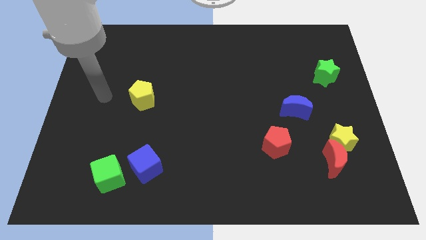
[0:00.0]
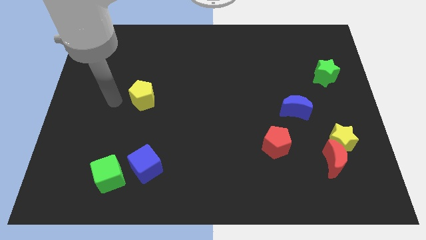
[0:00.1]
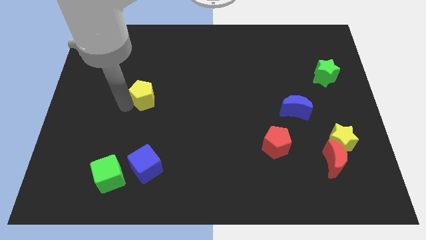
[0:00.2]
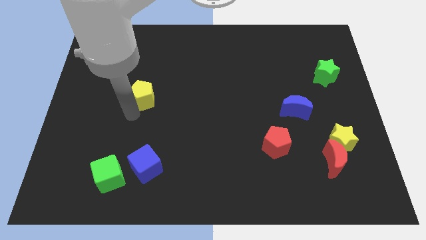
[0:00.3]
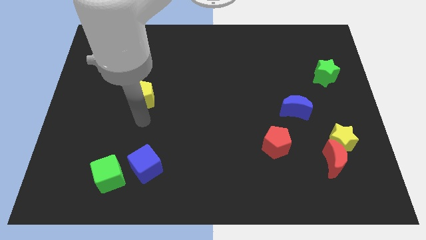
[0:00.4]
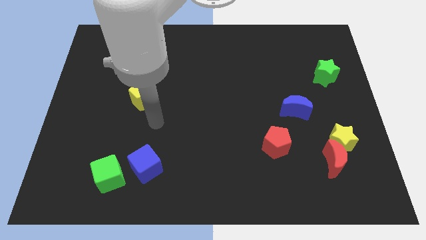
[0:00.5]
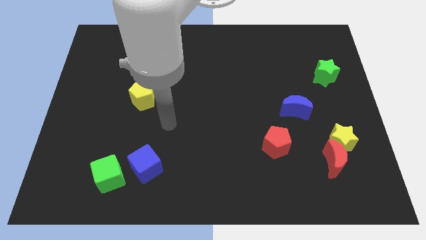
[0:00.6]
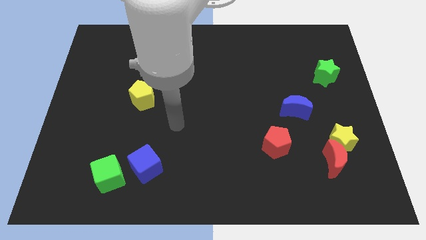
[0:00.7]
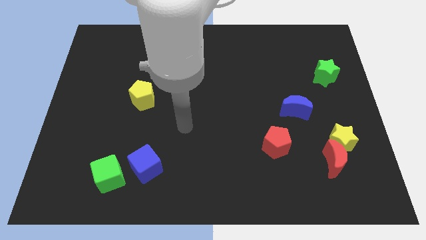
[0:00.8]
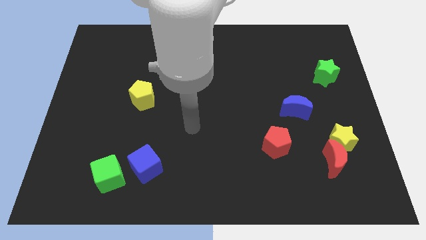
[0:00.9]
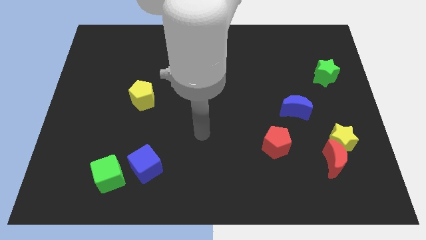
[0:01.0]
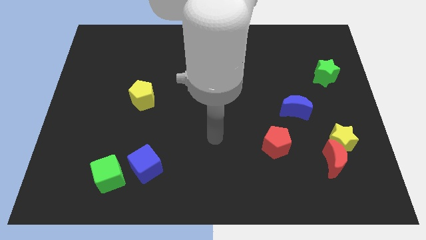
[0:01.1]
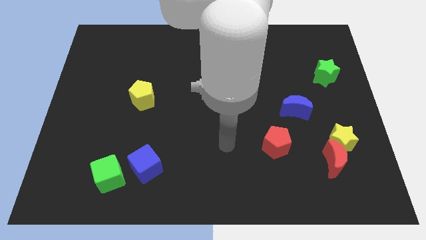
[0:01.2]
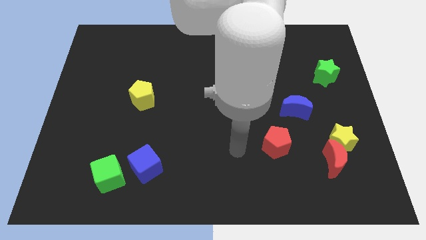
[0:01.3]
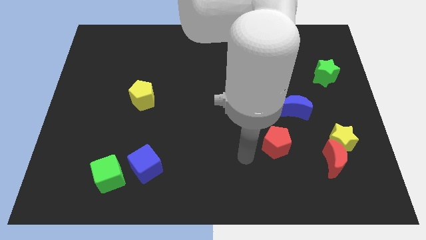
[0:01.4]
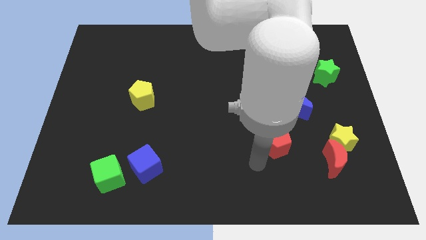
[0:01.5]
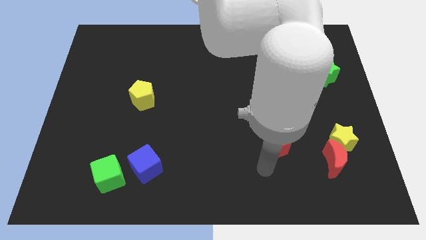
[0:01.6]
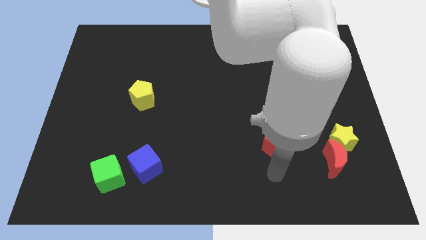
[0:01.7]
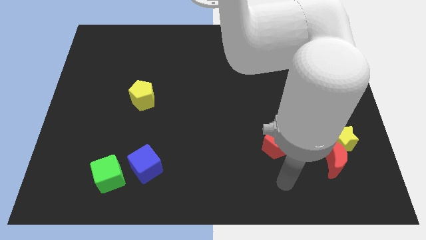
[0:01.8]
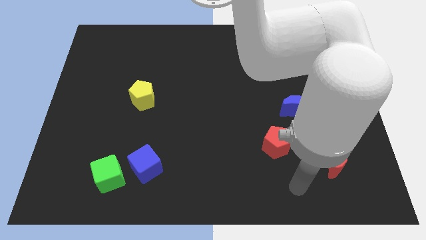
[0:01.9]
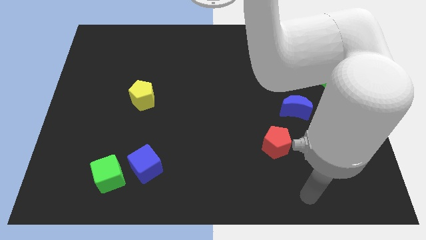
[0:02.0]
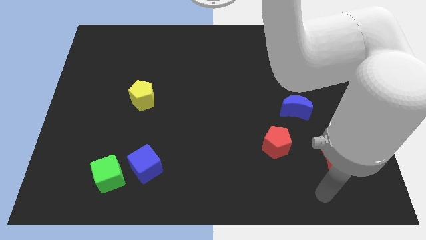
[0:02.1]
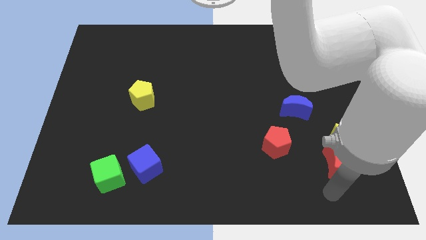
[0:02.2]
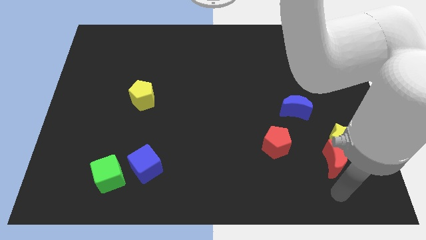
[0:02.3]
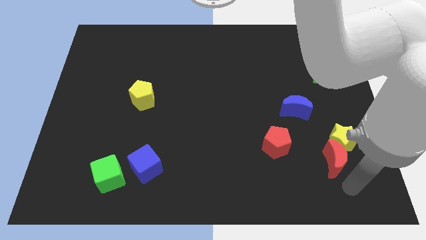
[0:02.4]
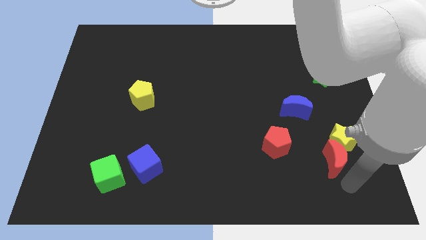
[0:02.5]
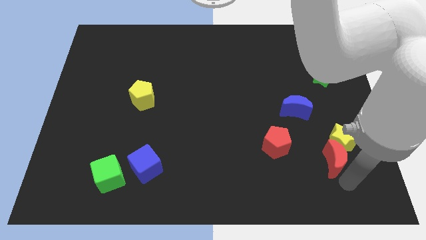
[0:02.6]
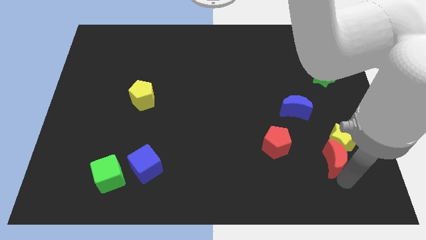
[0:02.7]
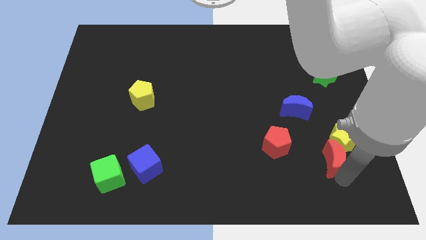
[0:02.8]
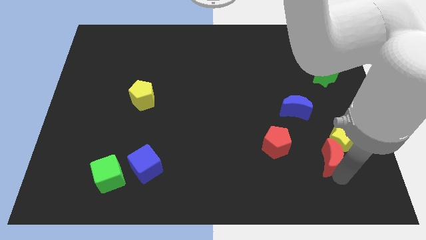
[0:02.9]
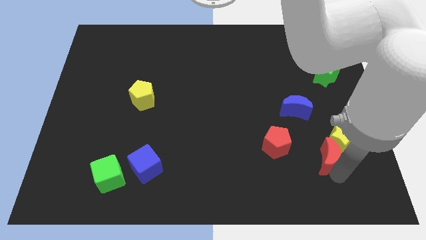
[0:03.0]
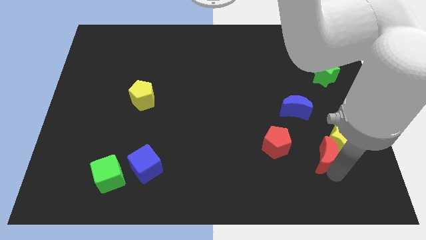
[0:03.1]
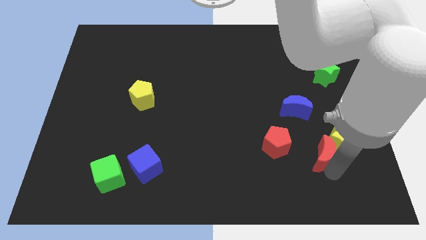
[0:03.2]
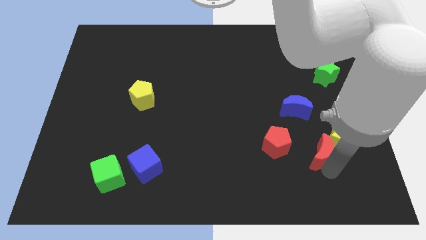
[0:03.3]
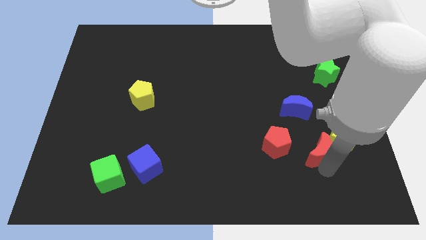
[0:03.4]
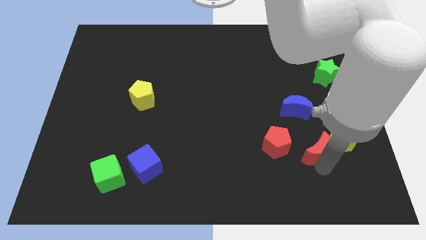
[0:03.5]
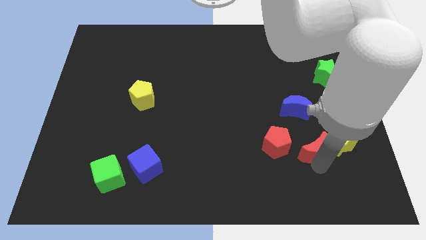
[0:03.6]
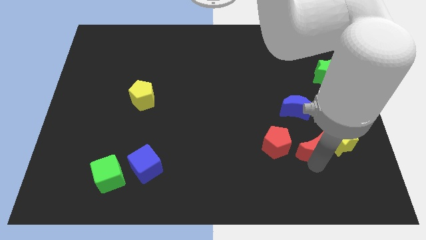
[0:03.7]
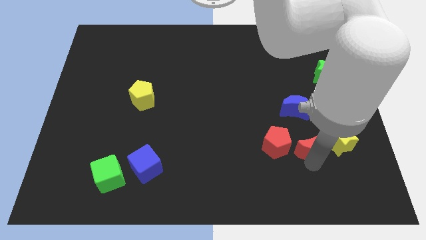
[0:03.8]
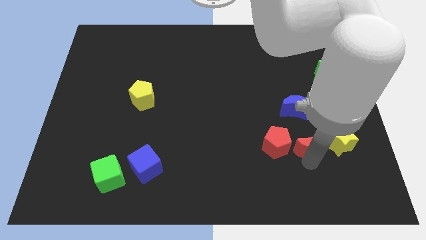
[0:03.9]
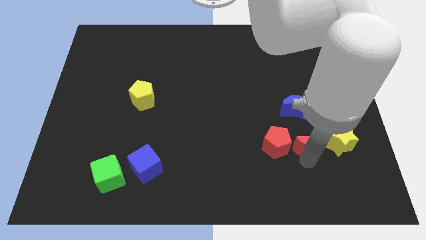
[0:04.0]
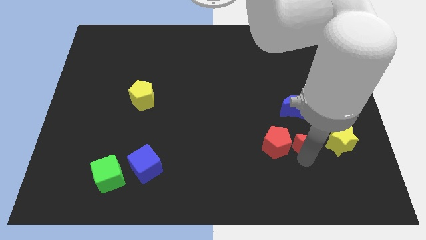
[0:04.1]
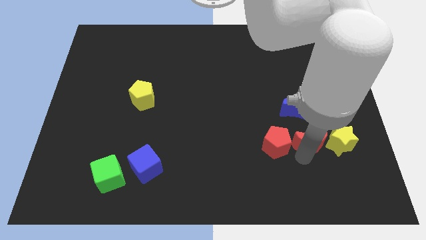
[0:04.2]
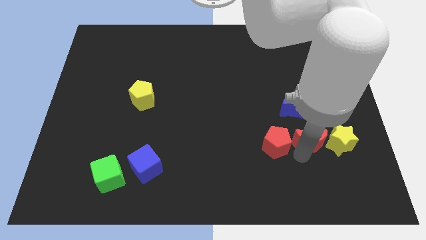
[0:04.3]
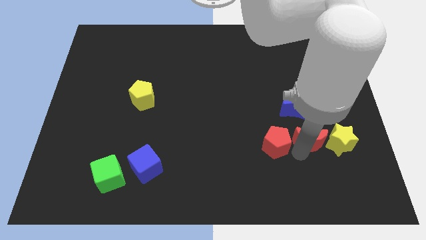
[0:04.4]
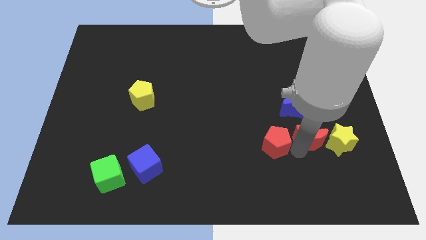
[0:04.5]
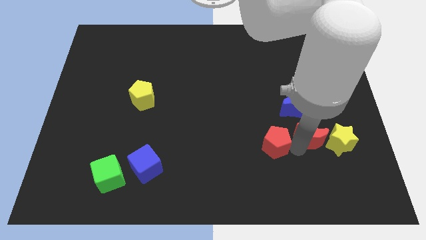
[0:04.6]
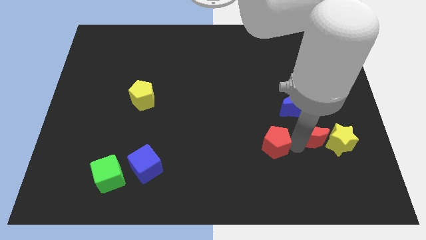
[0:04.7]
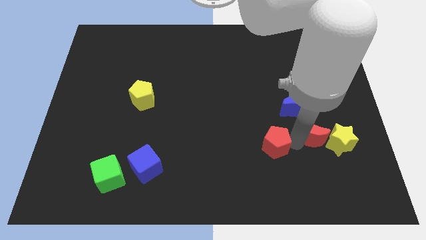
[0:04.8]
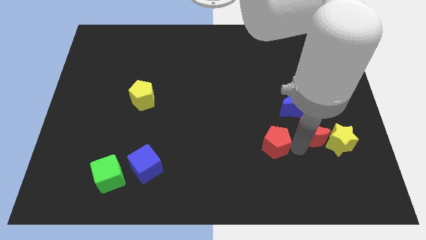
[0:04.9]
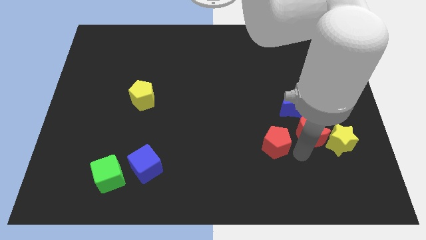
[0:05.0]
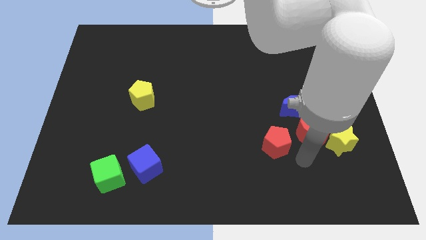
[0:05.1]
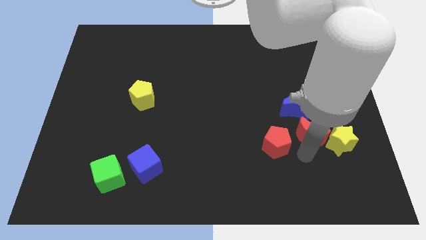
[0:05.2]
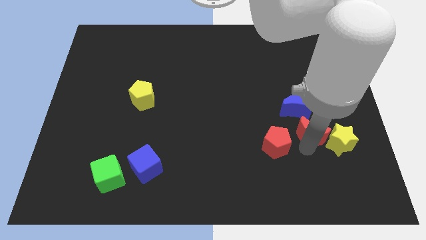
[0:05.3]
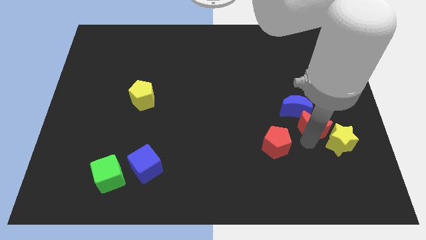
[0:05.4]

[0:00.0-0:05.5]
move the red moon a little upwards

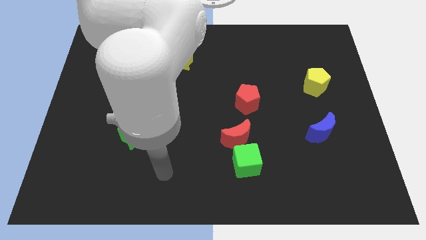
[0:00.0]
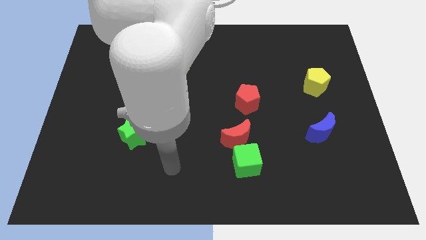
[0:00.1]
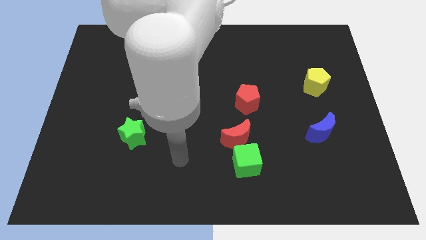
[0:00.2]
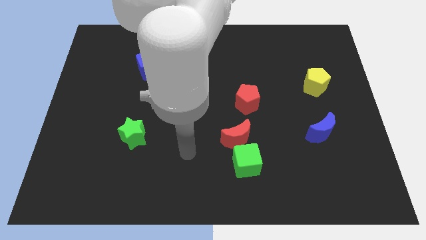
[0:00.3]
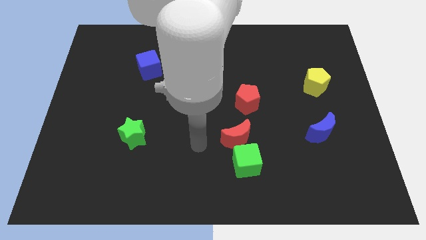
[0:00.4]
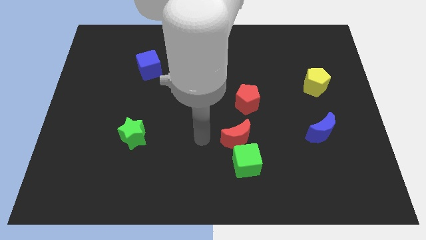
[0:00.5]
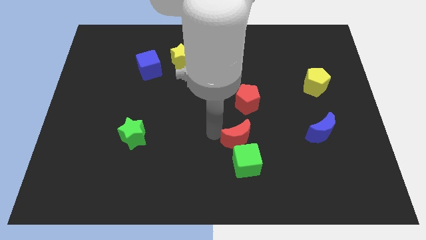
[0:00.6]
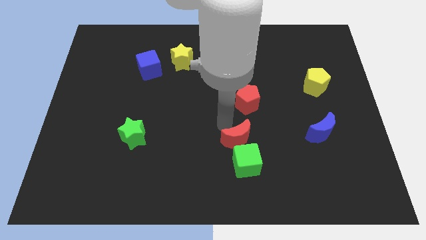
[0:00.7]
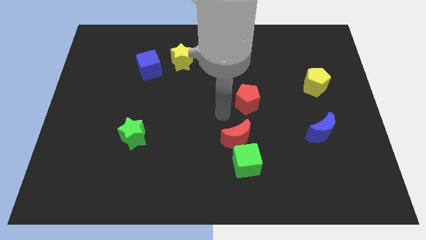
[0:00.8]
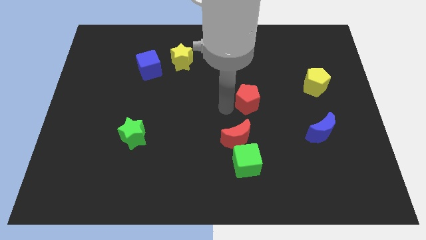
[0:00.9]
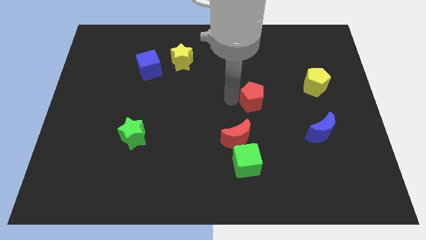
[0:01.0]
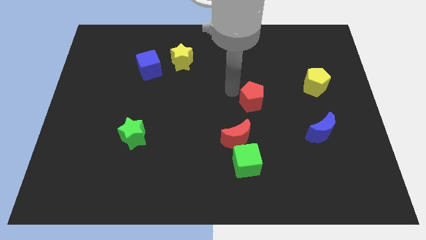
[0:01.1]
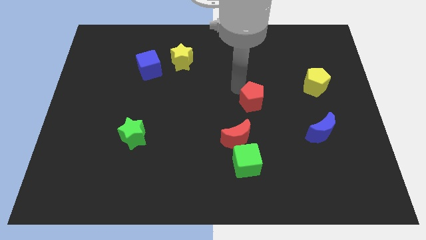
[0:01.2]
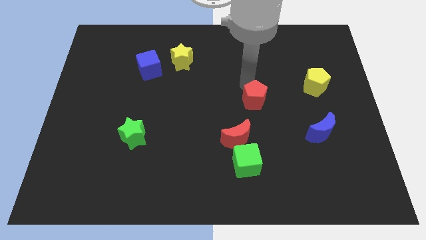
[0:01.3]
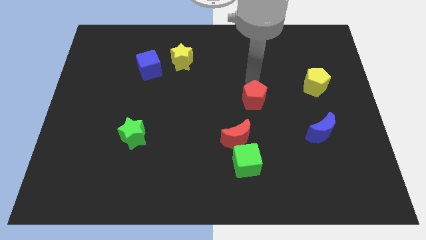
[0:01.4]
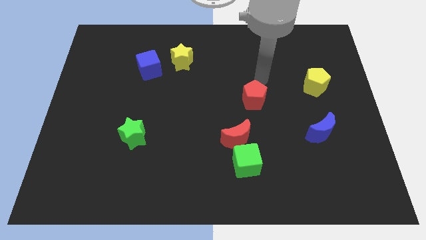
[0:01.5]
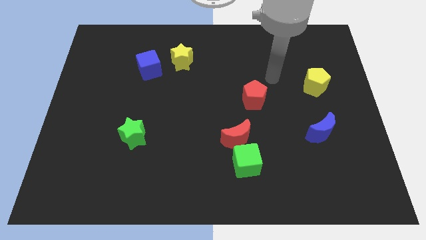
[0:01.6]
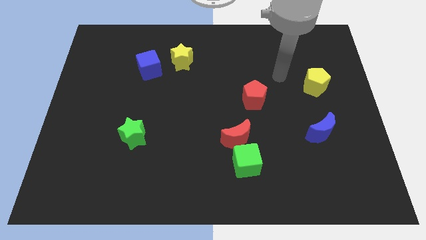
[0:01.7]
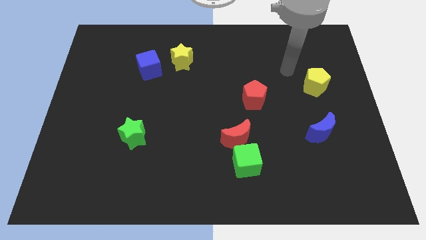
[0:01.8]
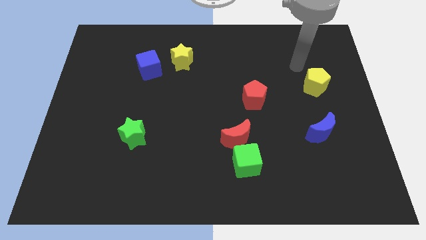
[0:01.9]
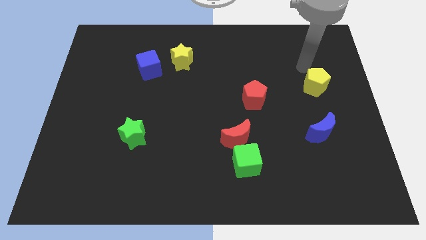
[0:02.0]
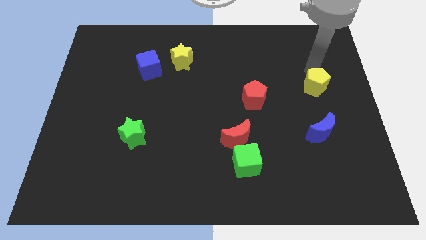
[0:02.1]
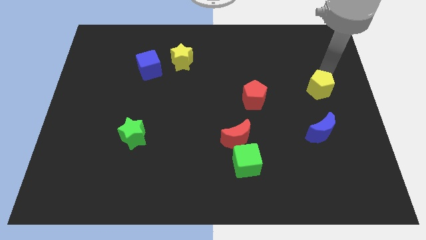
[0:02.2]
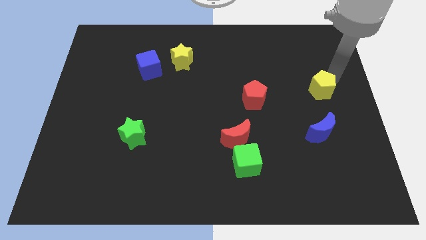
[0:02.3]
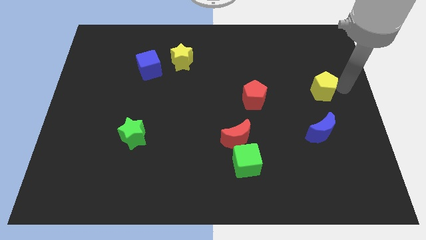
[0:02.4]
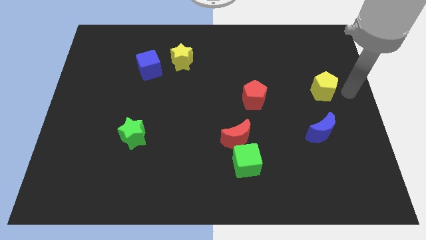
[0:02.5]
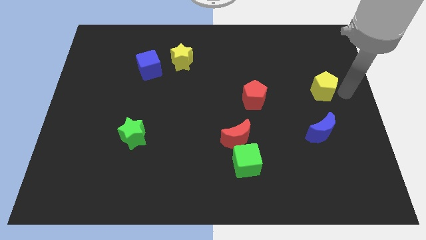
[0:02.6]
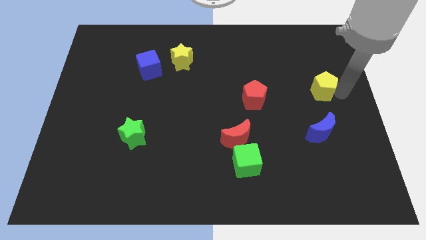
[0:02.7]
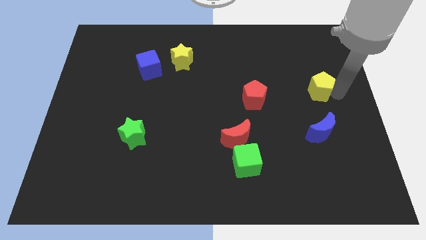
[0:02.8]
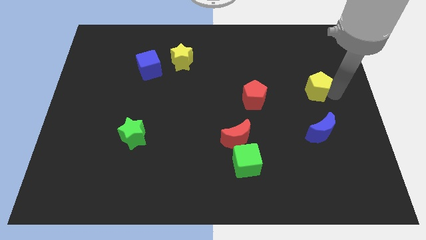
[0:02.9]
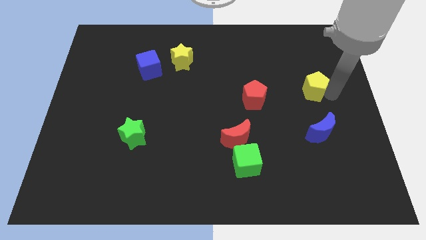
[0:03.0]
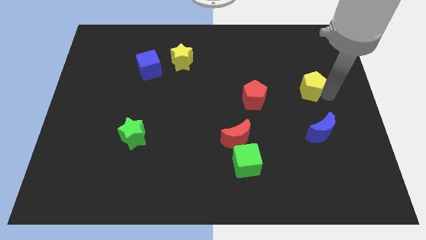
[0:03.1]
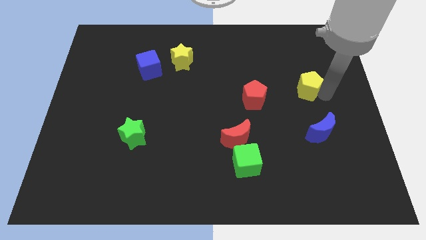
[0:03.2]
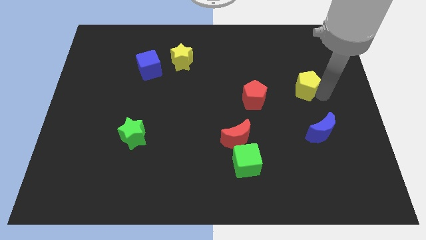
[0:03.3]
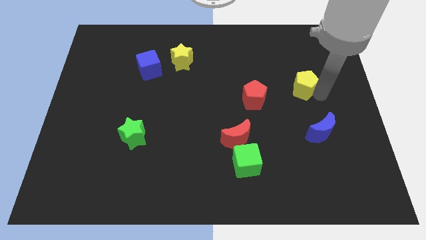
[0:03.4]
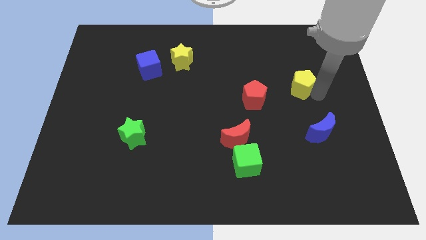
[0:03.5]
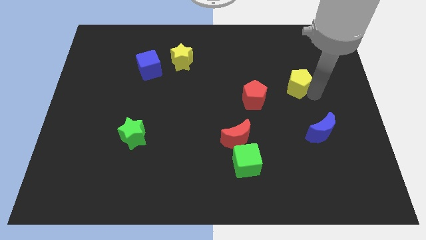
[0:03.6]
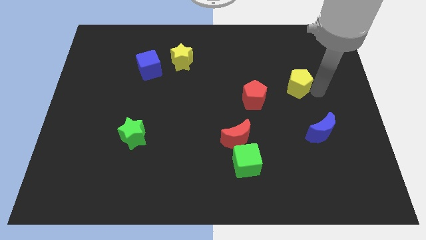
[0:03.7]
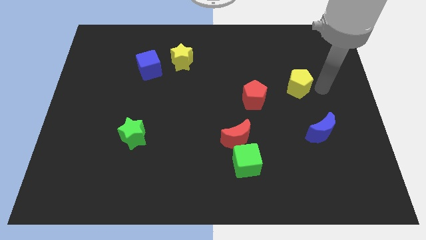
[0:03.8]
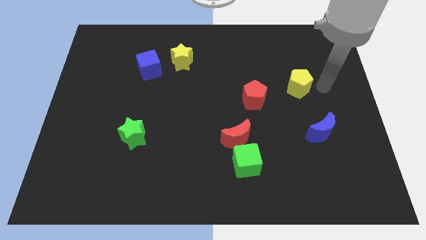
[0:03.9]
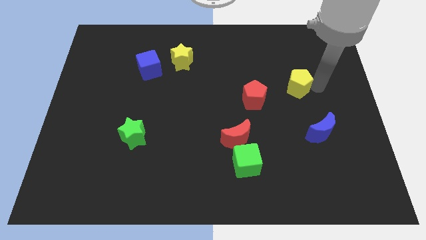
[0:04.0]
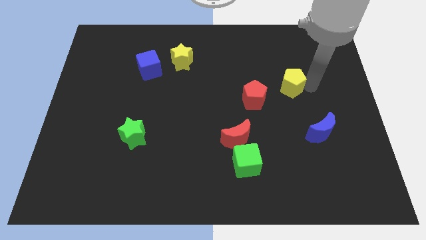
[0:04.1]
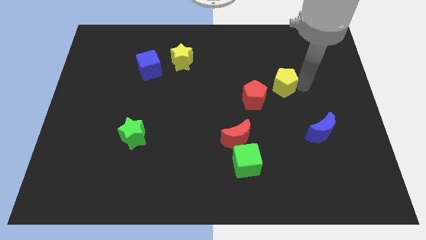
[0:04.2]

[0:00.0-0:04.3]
slide the yellow pentagon to the left somewhat
